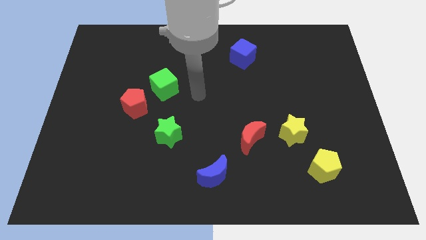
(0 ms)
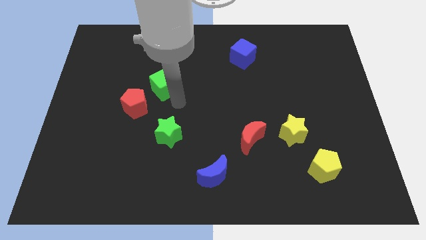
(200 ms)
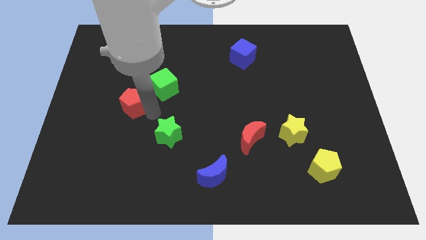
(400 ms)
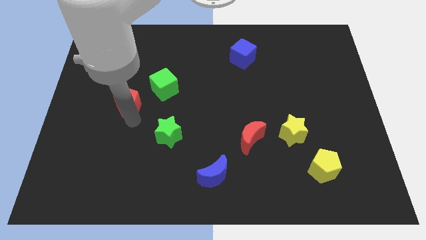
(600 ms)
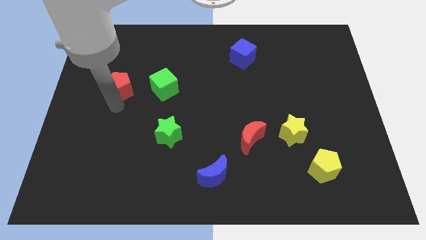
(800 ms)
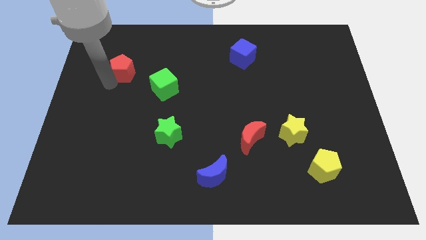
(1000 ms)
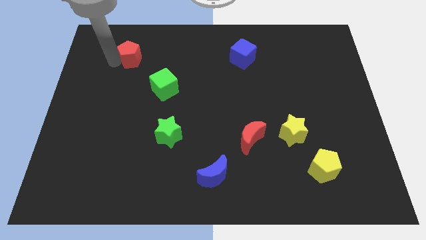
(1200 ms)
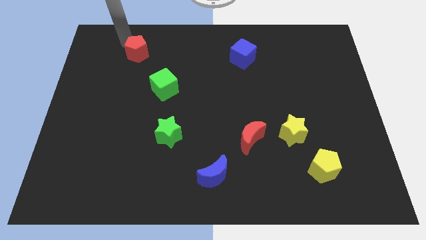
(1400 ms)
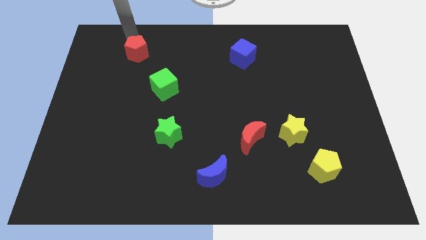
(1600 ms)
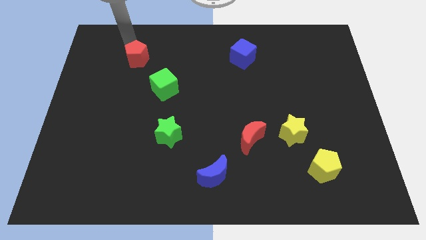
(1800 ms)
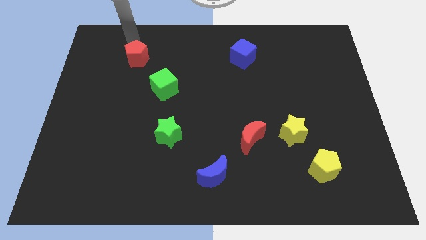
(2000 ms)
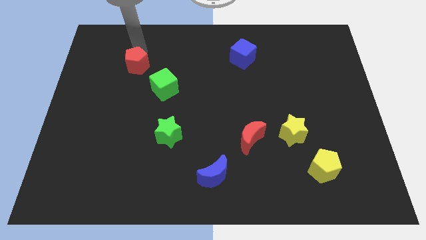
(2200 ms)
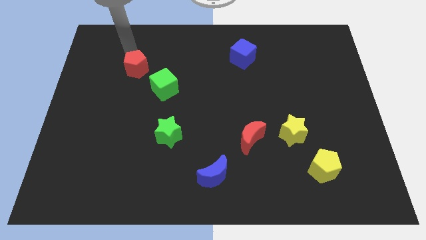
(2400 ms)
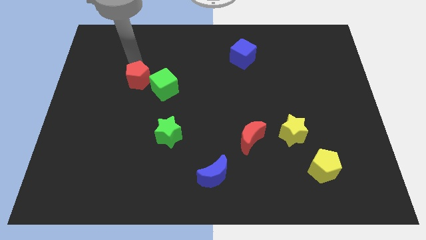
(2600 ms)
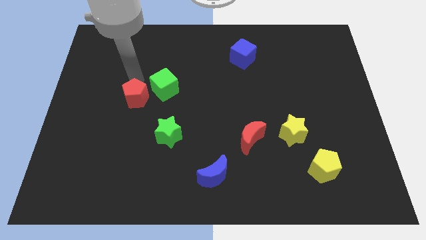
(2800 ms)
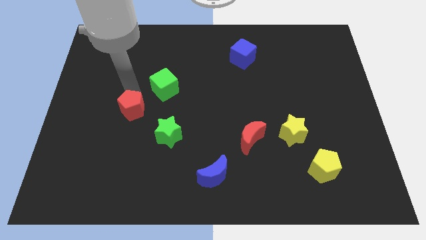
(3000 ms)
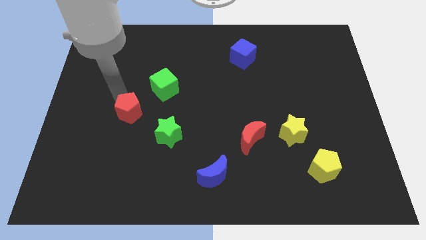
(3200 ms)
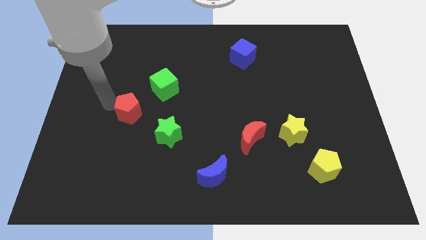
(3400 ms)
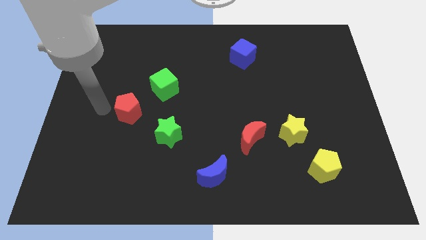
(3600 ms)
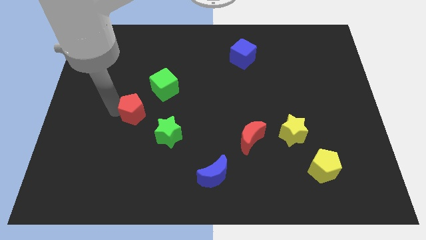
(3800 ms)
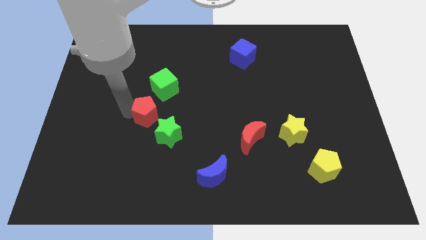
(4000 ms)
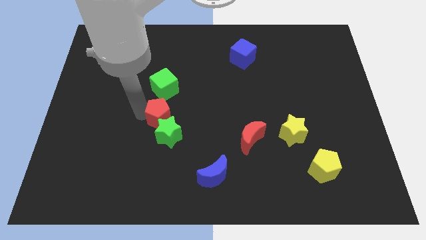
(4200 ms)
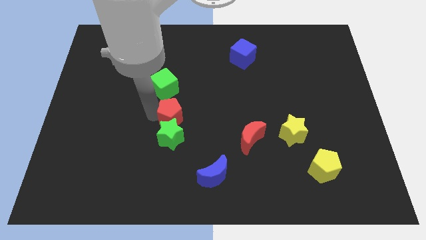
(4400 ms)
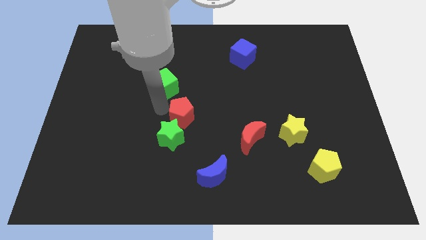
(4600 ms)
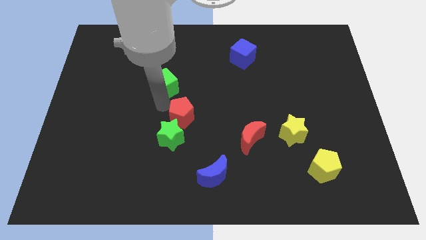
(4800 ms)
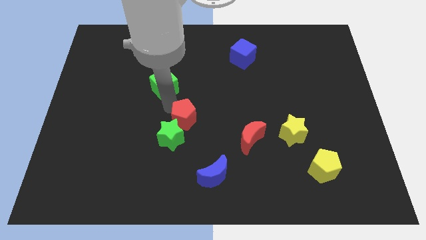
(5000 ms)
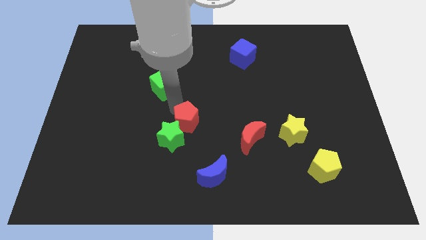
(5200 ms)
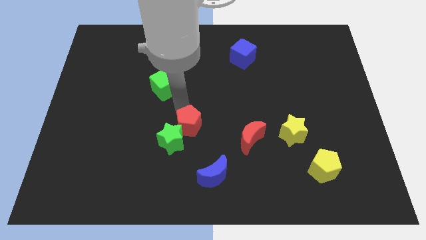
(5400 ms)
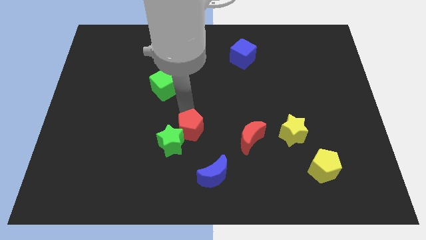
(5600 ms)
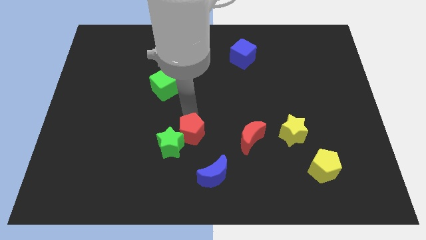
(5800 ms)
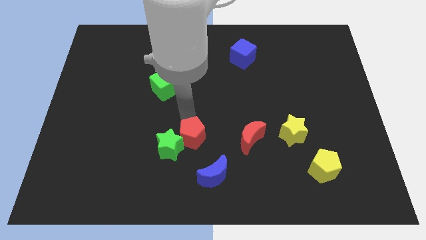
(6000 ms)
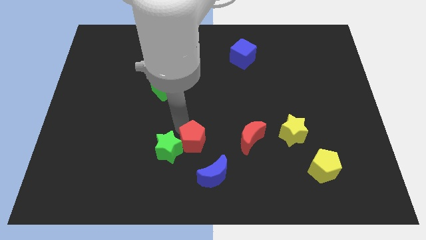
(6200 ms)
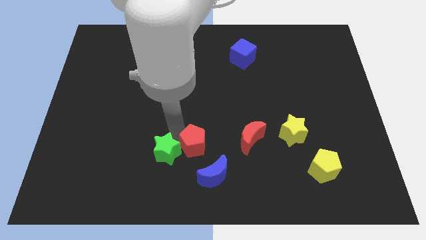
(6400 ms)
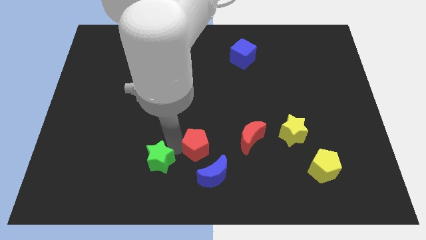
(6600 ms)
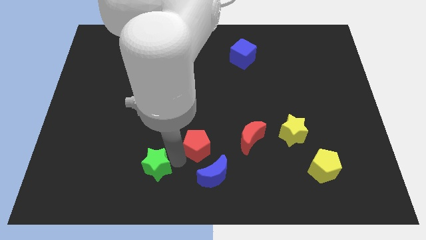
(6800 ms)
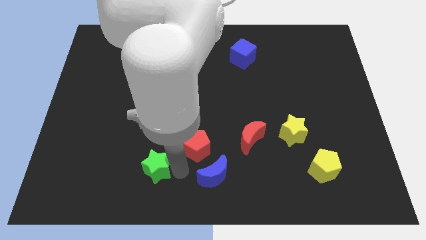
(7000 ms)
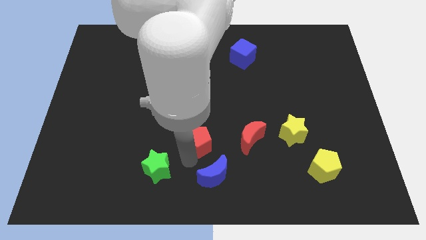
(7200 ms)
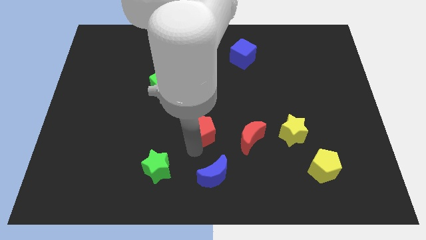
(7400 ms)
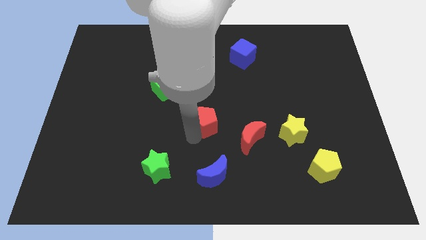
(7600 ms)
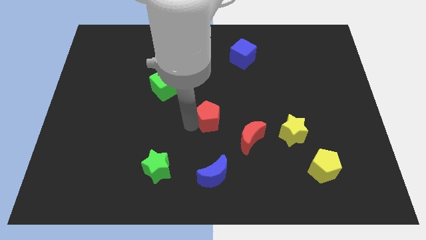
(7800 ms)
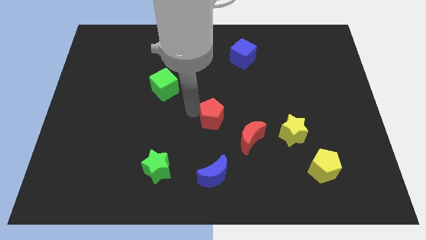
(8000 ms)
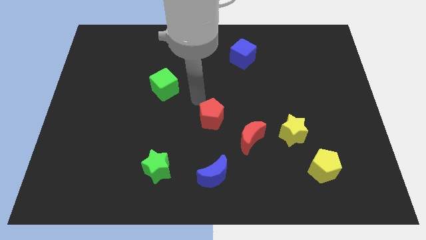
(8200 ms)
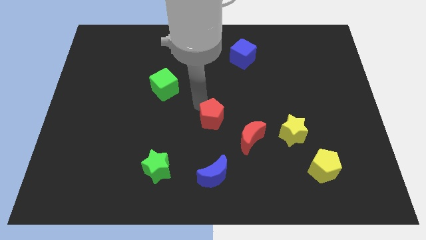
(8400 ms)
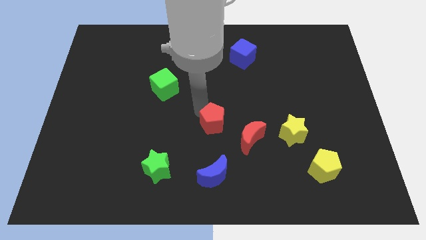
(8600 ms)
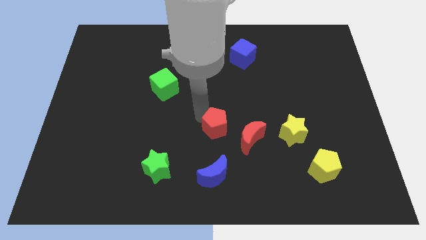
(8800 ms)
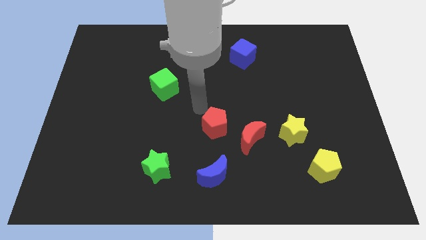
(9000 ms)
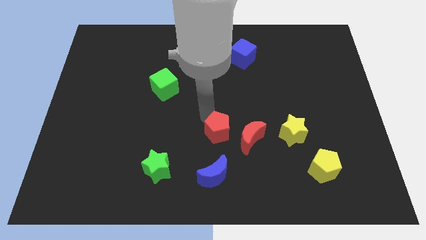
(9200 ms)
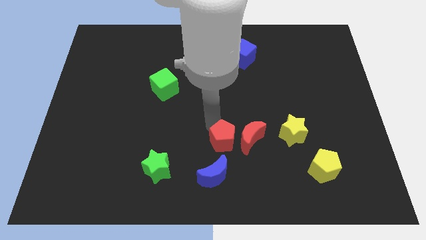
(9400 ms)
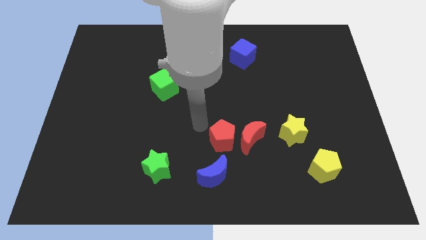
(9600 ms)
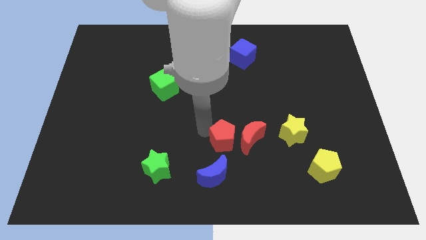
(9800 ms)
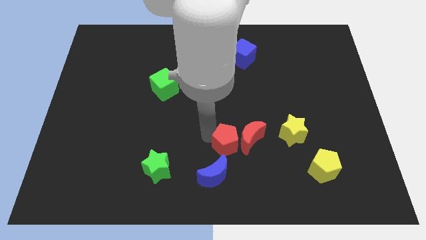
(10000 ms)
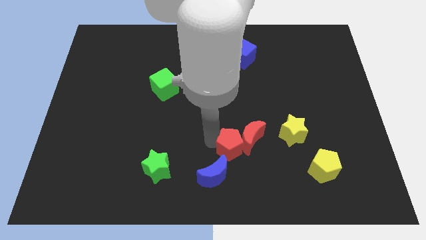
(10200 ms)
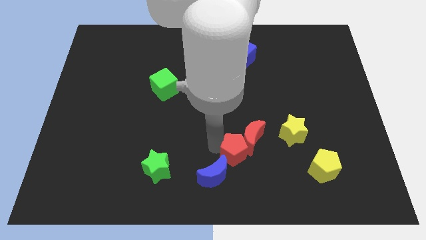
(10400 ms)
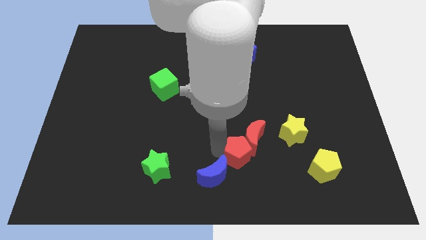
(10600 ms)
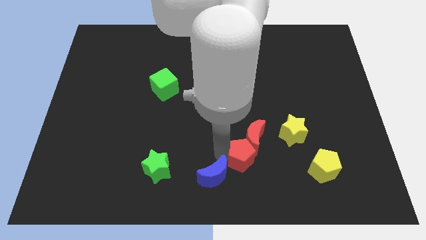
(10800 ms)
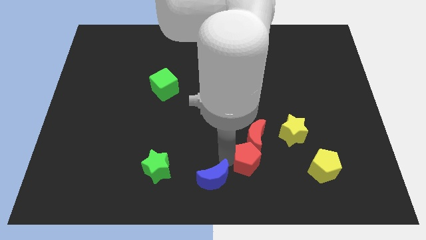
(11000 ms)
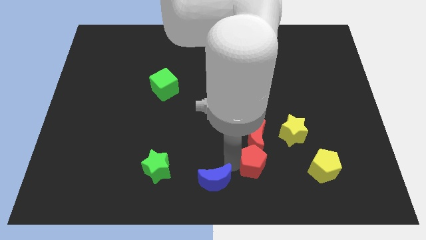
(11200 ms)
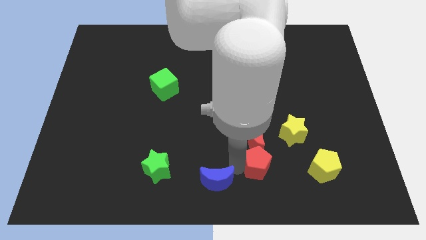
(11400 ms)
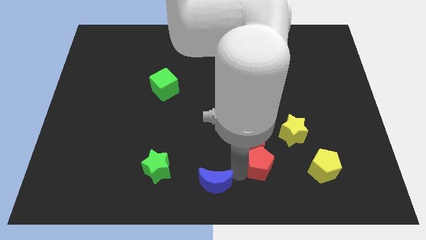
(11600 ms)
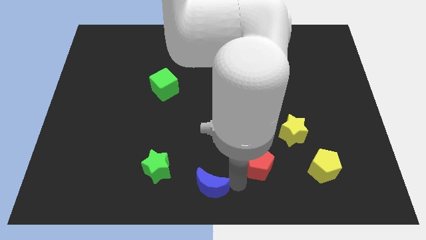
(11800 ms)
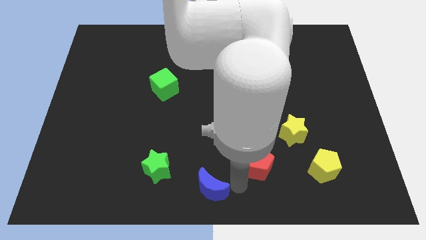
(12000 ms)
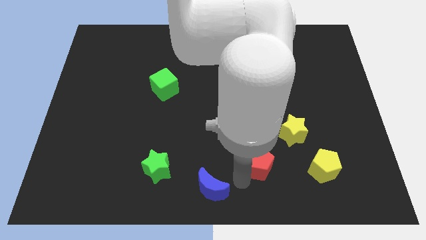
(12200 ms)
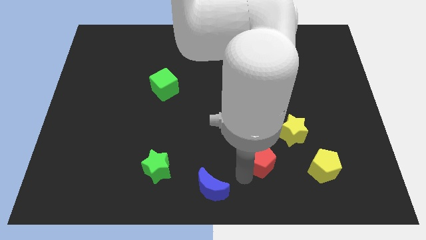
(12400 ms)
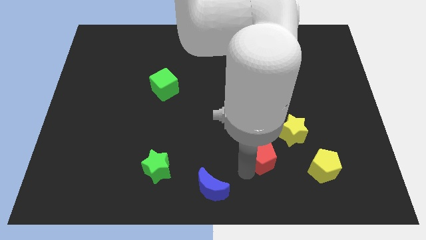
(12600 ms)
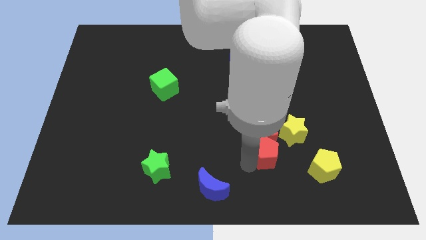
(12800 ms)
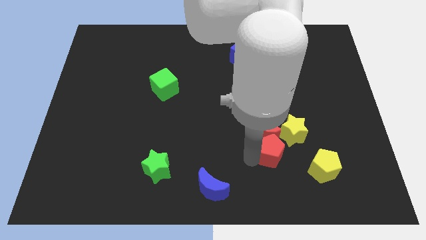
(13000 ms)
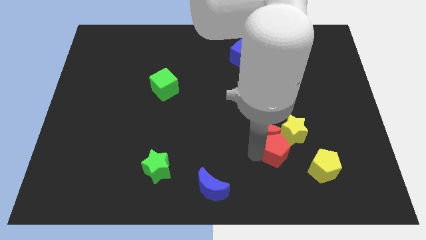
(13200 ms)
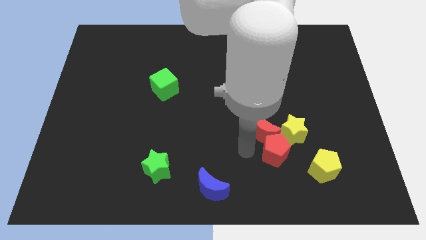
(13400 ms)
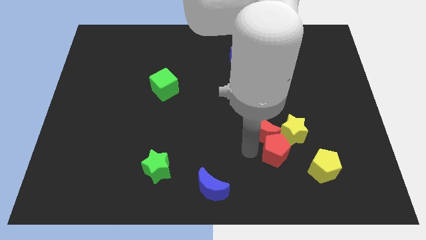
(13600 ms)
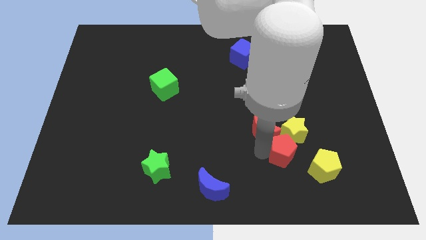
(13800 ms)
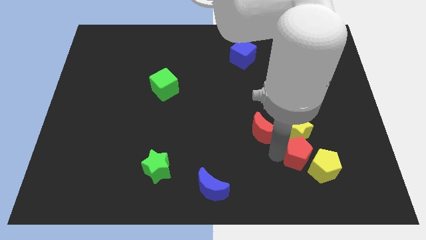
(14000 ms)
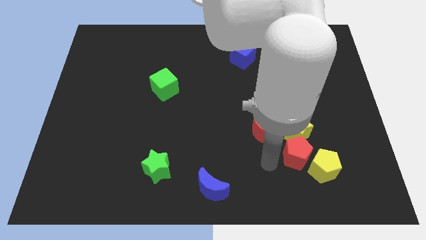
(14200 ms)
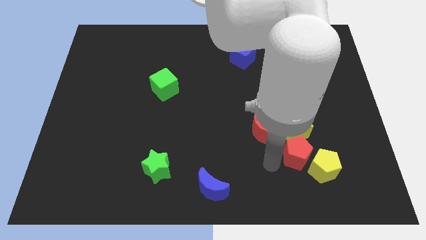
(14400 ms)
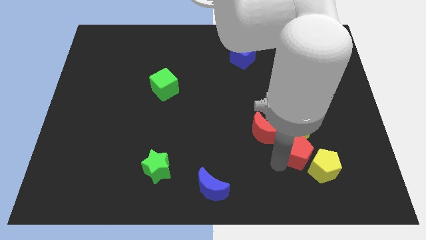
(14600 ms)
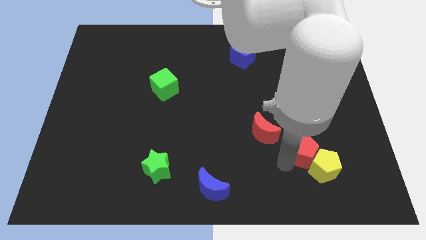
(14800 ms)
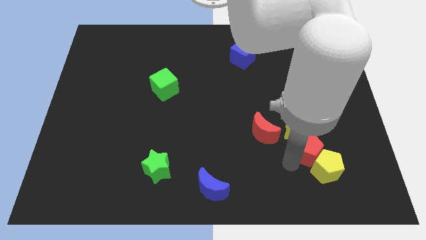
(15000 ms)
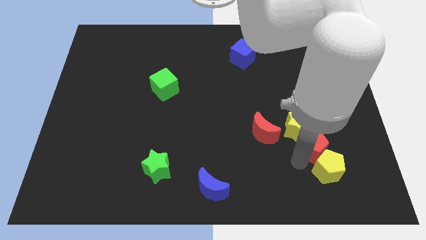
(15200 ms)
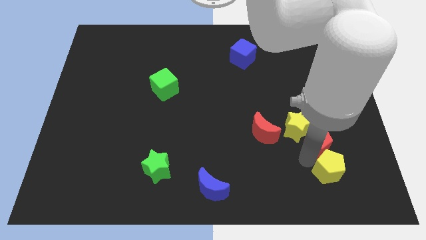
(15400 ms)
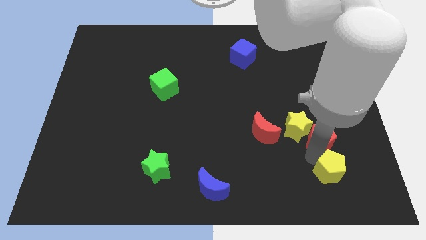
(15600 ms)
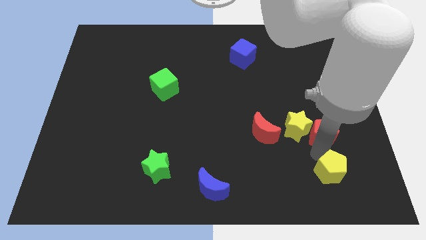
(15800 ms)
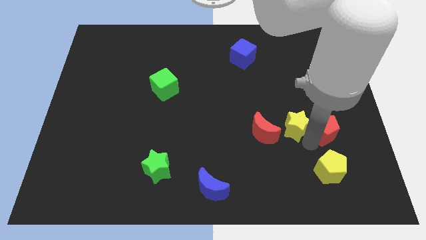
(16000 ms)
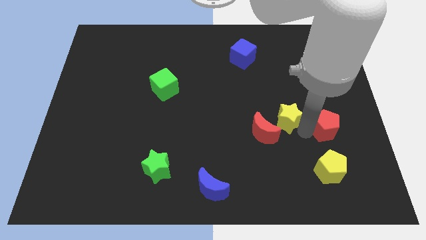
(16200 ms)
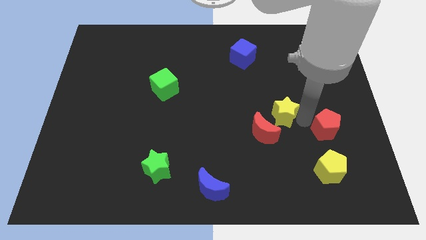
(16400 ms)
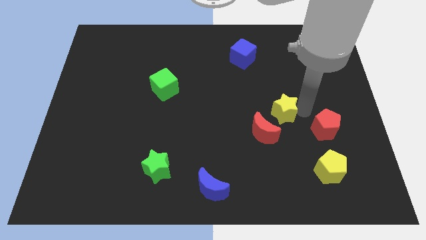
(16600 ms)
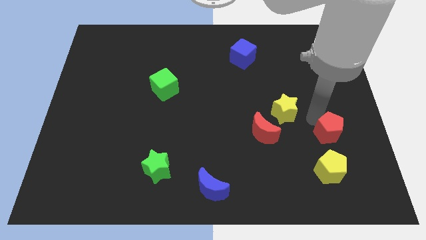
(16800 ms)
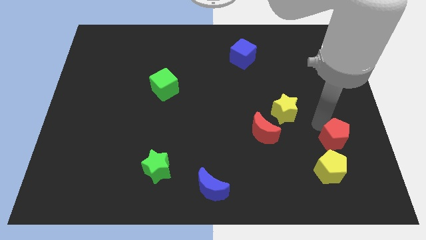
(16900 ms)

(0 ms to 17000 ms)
push the red pentagon to the top right of the yellow pentagon
